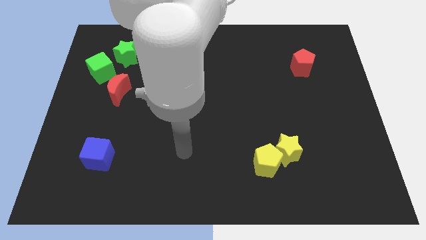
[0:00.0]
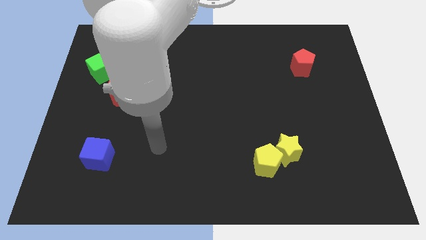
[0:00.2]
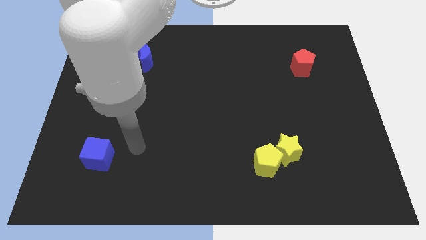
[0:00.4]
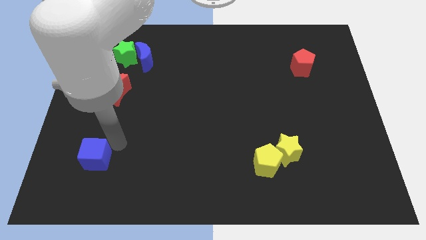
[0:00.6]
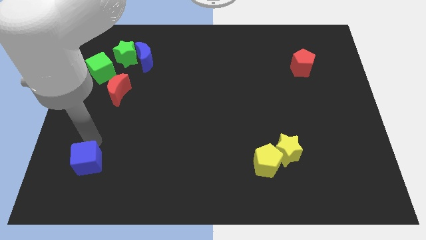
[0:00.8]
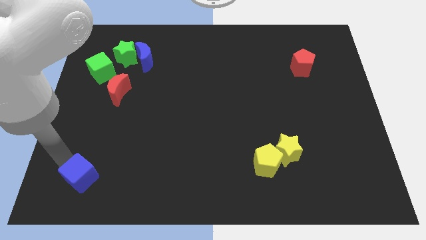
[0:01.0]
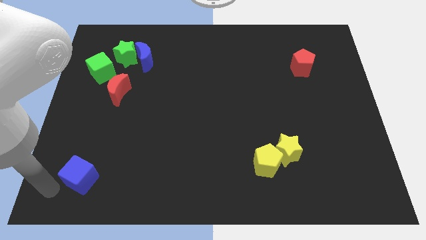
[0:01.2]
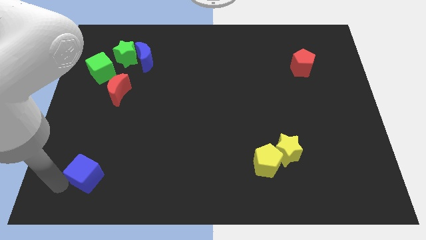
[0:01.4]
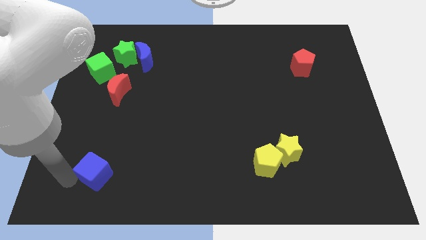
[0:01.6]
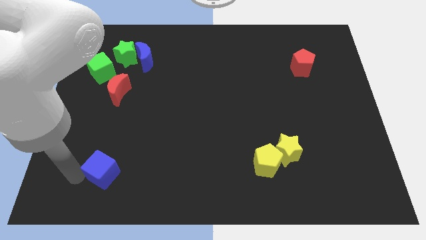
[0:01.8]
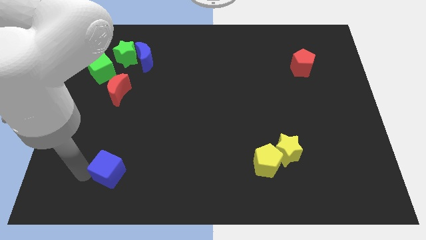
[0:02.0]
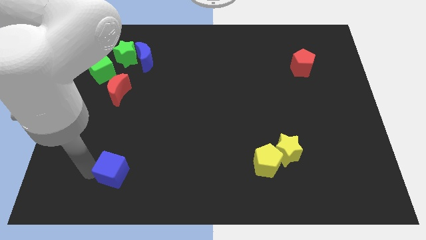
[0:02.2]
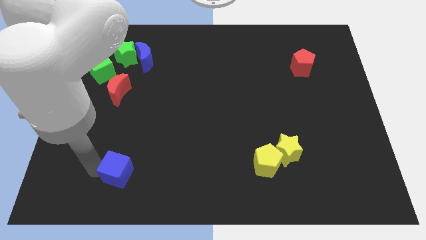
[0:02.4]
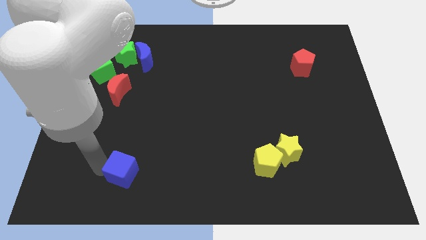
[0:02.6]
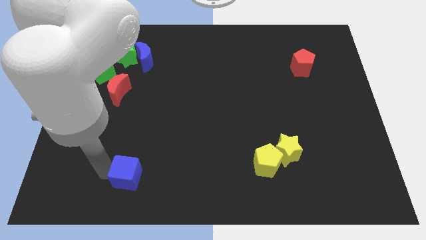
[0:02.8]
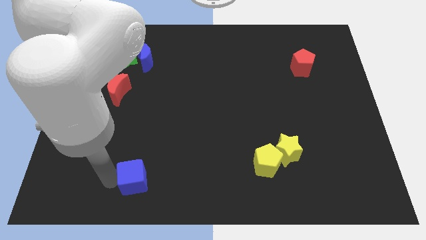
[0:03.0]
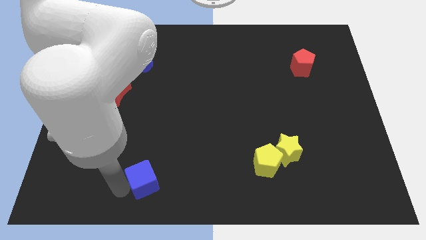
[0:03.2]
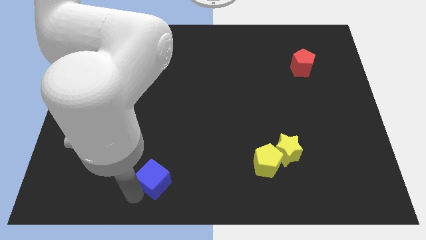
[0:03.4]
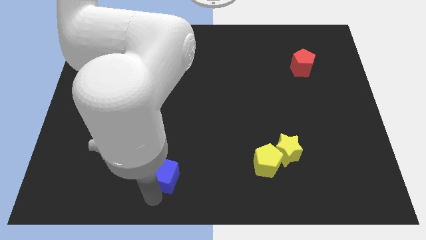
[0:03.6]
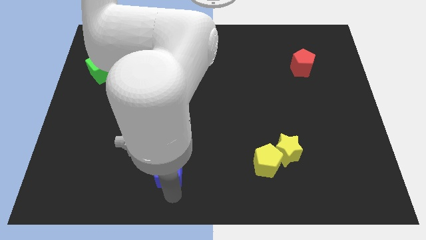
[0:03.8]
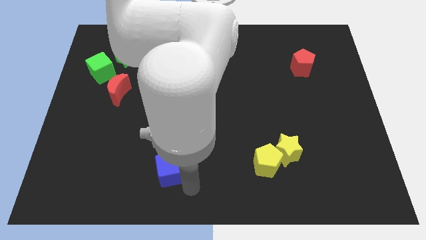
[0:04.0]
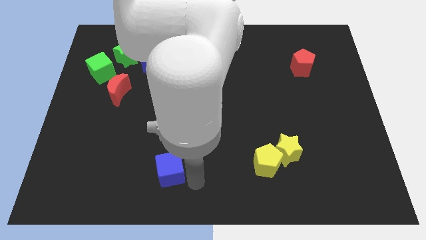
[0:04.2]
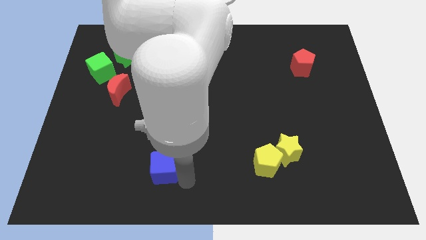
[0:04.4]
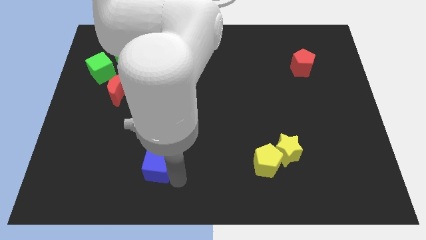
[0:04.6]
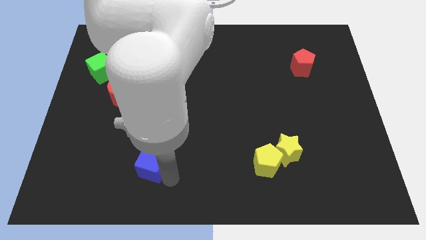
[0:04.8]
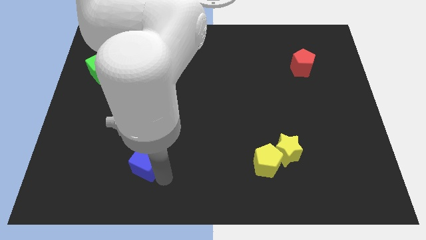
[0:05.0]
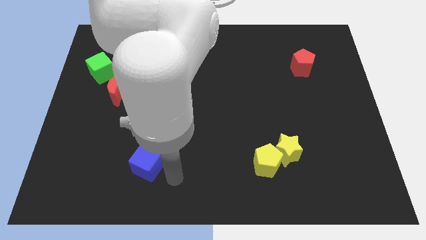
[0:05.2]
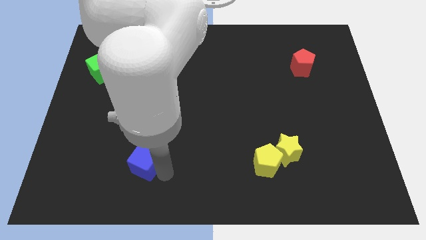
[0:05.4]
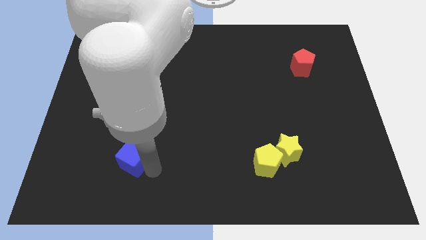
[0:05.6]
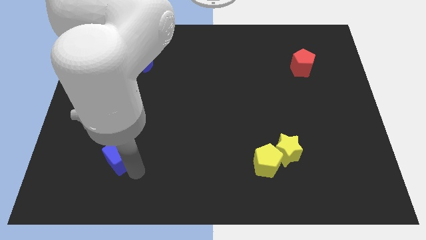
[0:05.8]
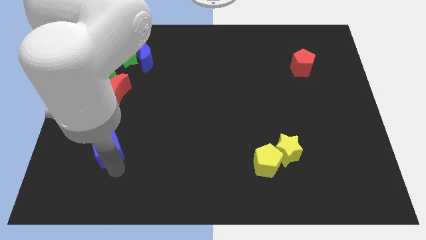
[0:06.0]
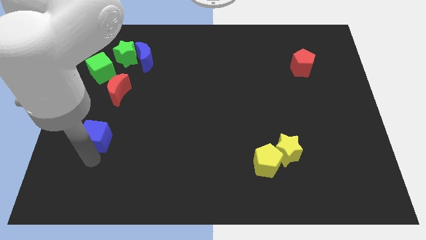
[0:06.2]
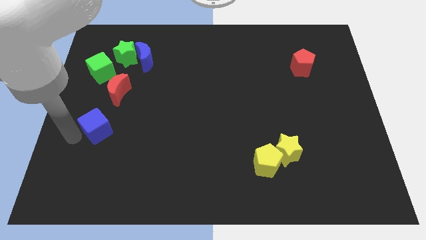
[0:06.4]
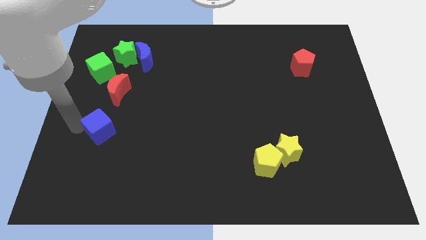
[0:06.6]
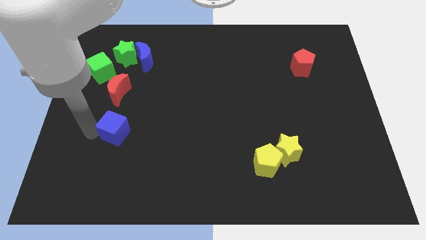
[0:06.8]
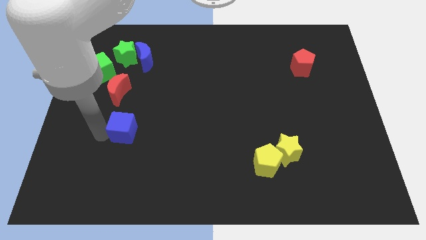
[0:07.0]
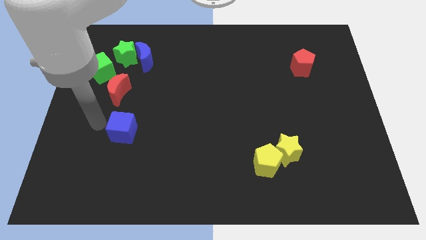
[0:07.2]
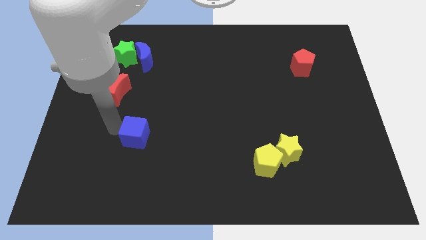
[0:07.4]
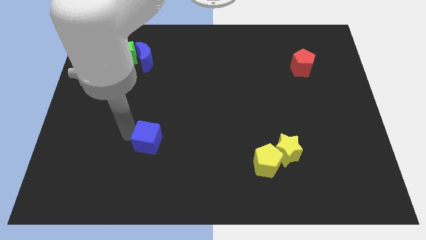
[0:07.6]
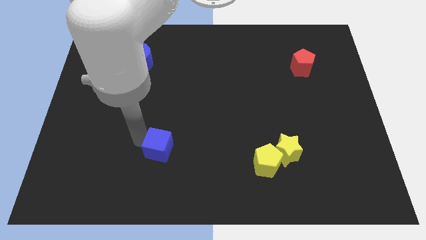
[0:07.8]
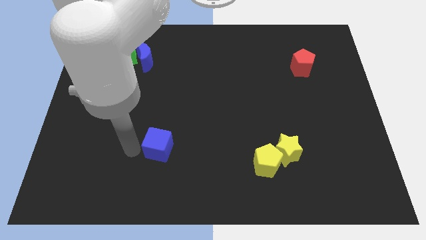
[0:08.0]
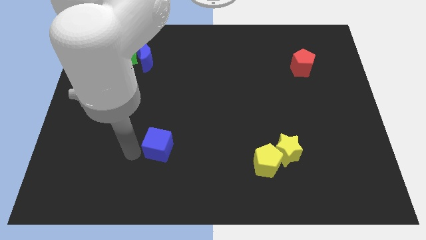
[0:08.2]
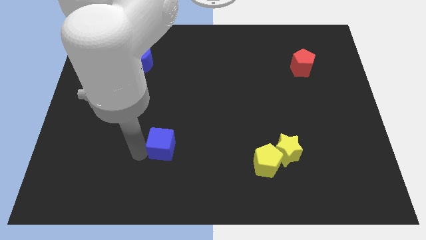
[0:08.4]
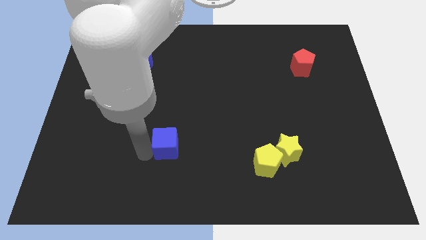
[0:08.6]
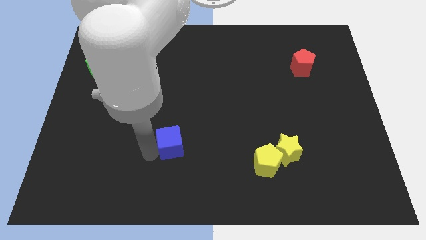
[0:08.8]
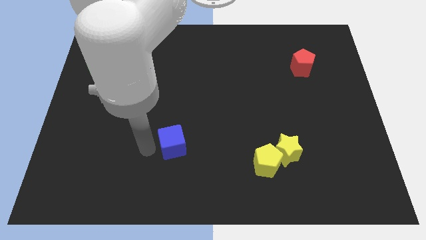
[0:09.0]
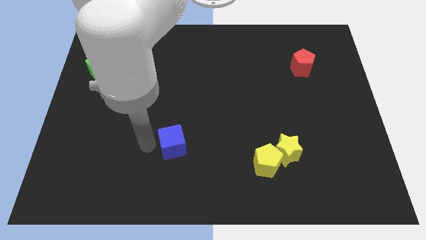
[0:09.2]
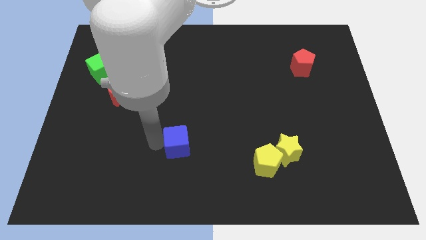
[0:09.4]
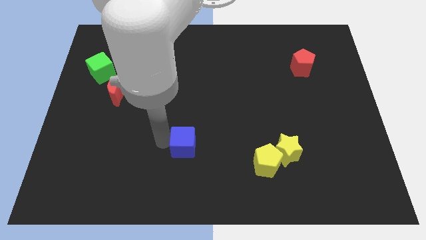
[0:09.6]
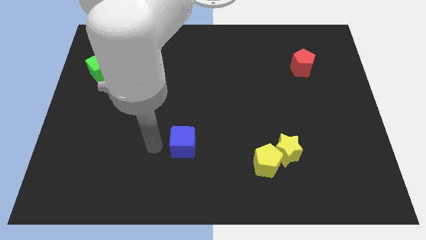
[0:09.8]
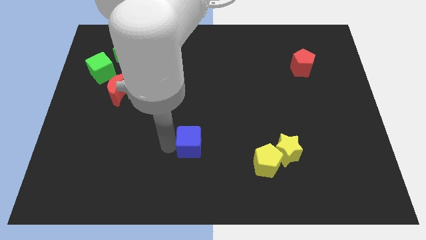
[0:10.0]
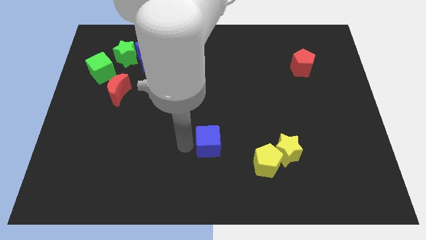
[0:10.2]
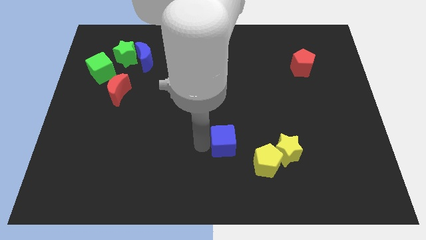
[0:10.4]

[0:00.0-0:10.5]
move the blue cube to the top left side of the yellow pentagon

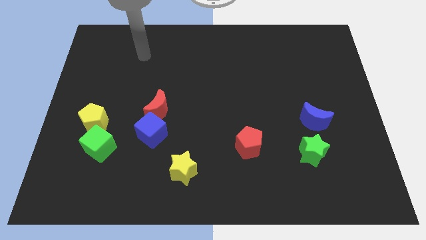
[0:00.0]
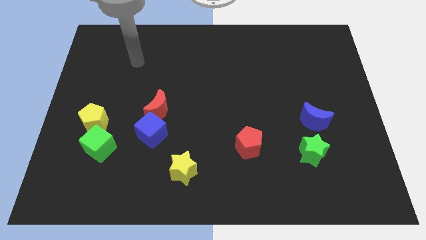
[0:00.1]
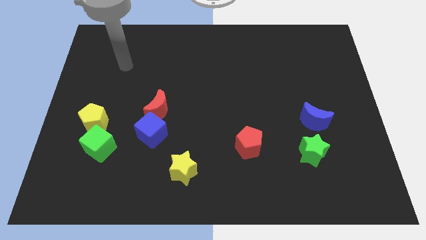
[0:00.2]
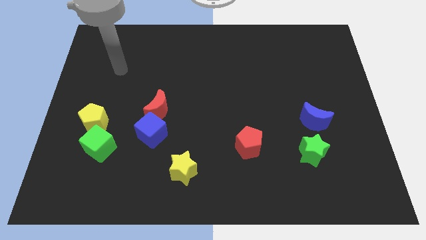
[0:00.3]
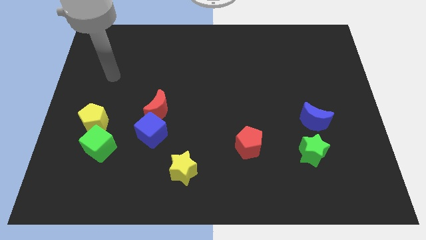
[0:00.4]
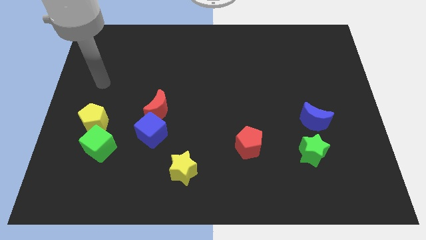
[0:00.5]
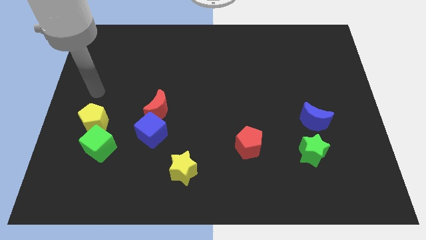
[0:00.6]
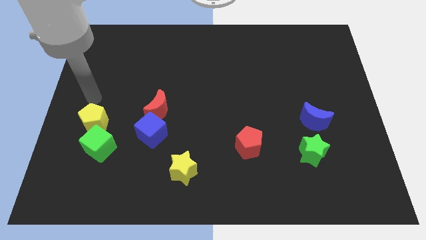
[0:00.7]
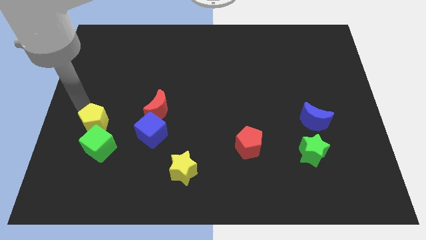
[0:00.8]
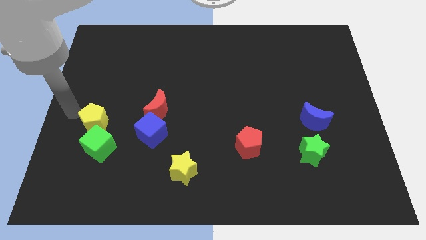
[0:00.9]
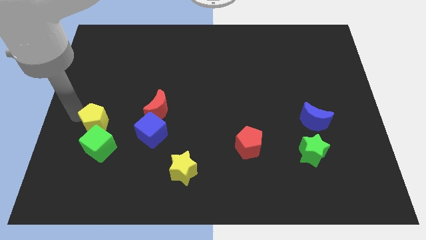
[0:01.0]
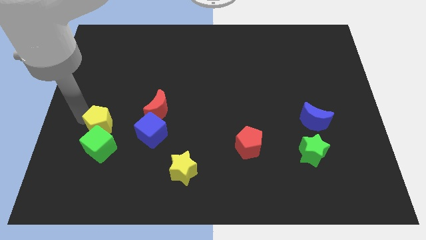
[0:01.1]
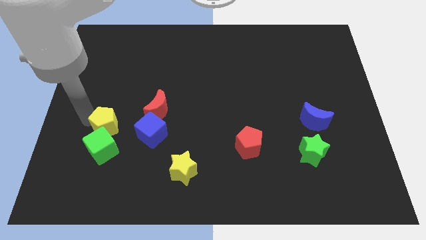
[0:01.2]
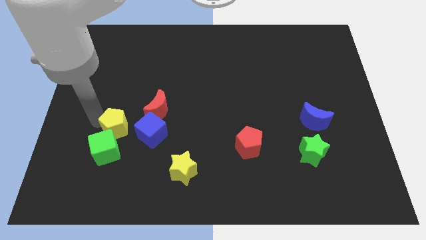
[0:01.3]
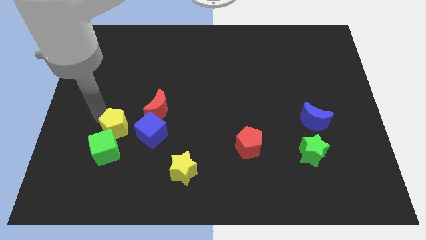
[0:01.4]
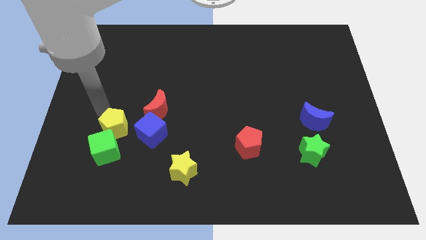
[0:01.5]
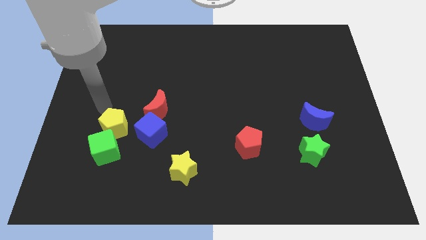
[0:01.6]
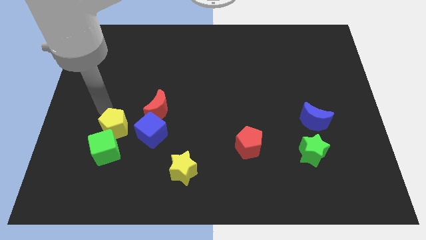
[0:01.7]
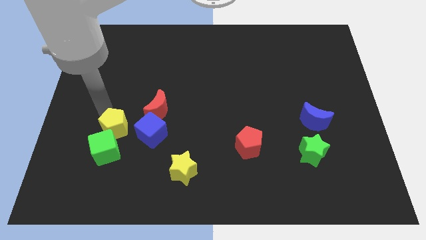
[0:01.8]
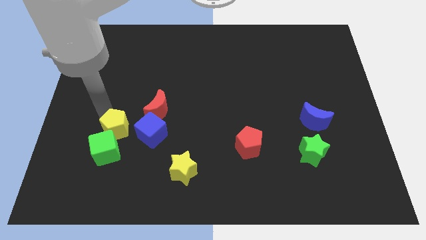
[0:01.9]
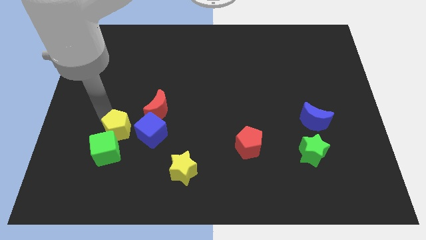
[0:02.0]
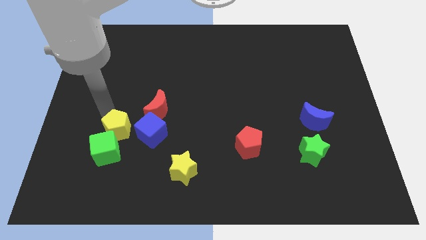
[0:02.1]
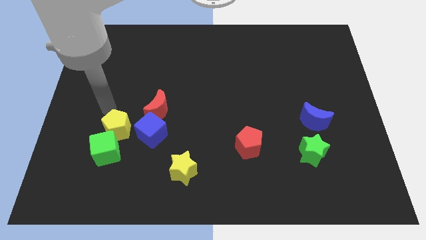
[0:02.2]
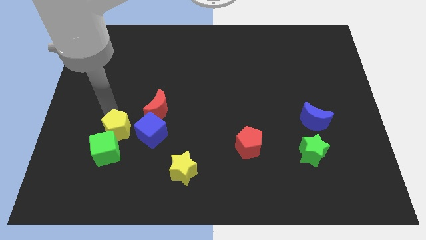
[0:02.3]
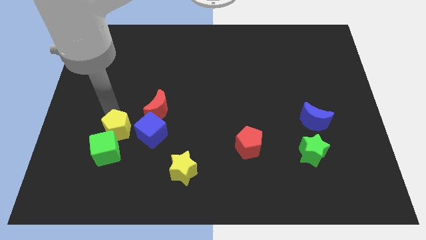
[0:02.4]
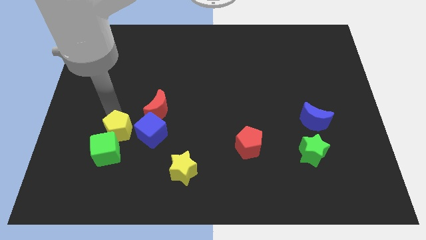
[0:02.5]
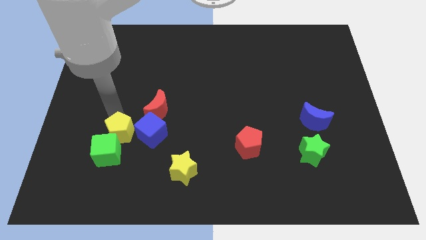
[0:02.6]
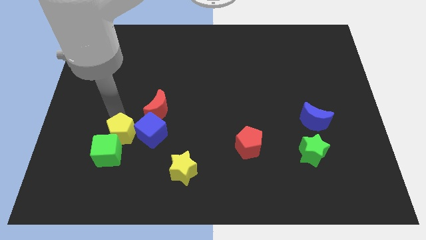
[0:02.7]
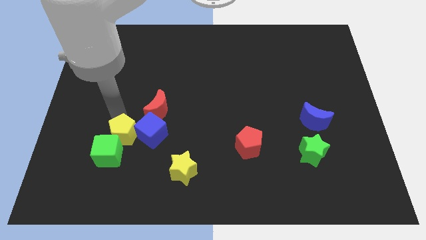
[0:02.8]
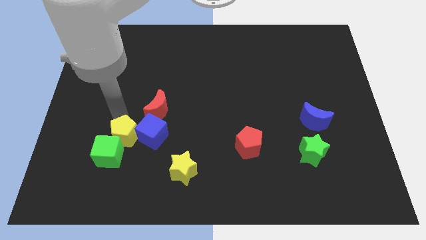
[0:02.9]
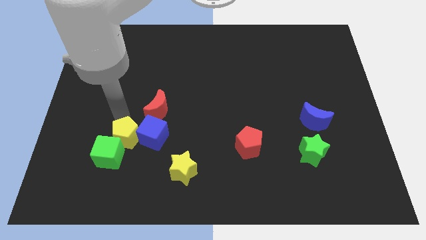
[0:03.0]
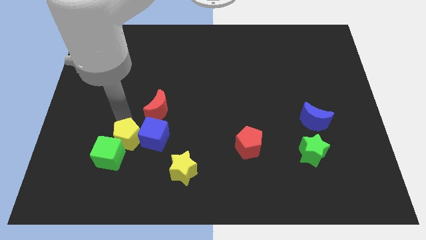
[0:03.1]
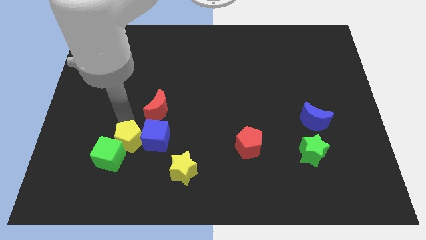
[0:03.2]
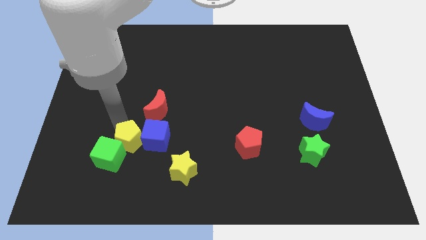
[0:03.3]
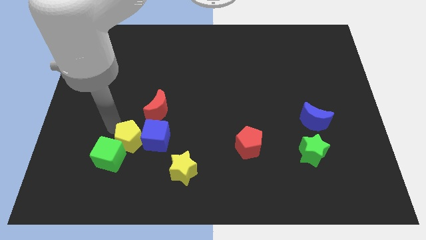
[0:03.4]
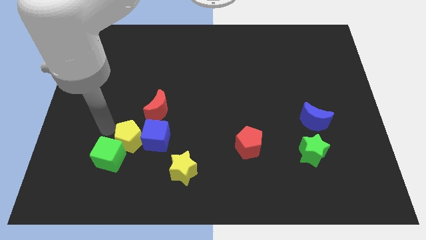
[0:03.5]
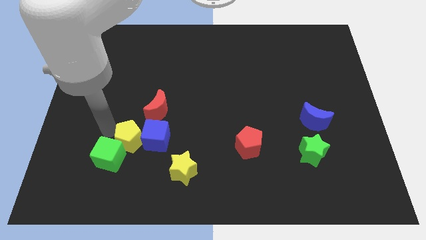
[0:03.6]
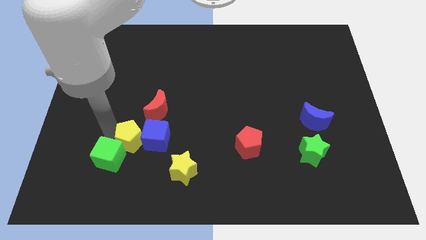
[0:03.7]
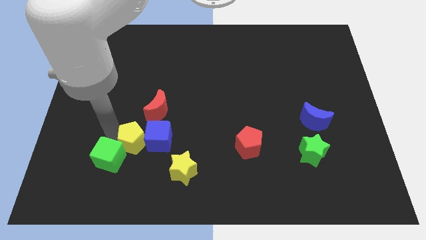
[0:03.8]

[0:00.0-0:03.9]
put the yellow pentagon to the bottom side of the red moon
